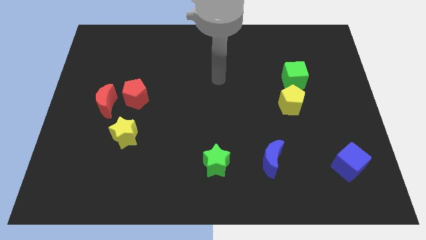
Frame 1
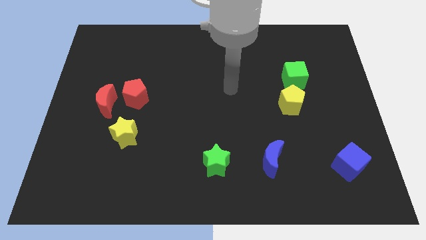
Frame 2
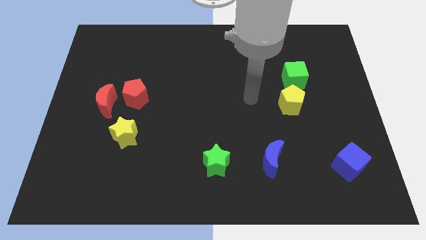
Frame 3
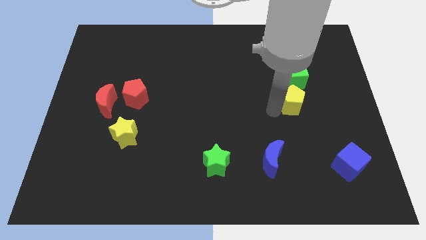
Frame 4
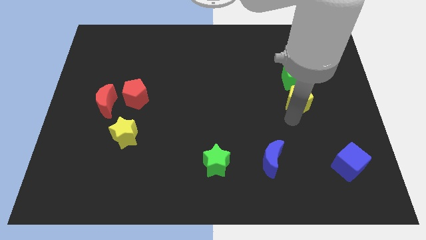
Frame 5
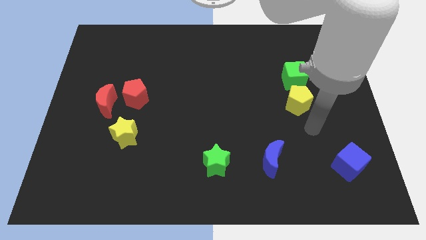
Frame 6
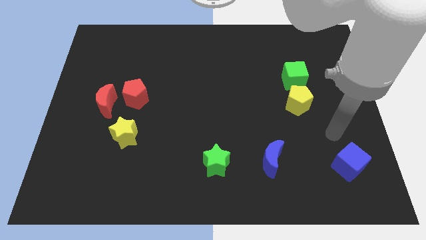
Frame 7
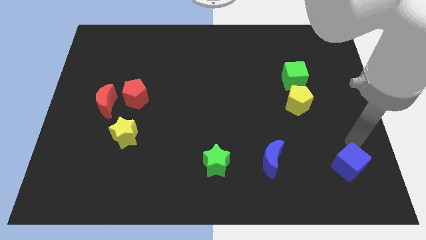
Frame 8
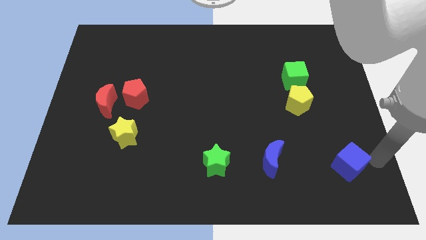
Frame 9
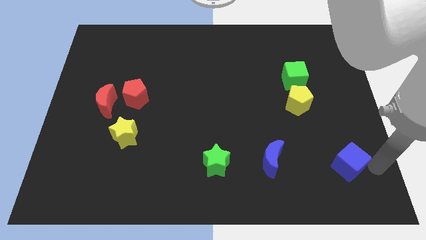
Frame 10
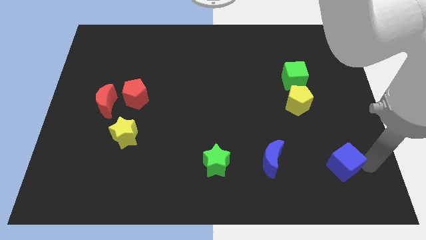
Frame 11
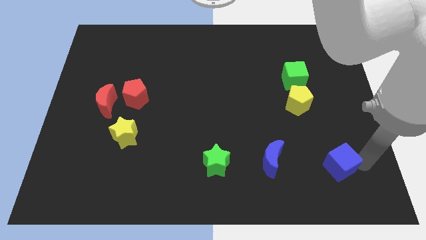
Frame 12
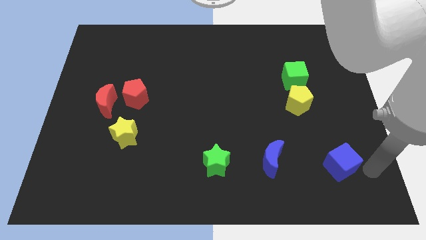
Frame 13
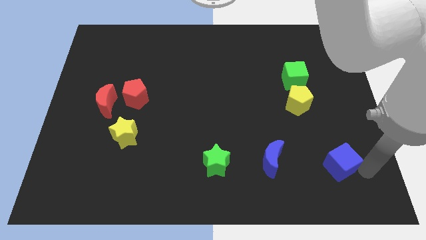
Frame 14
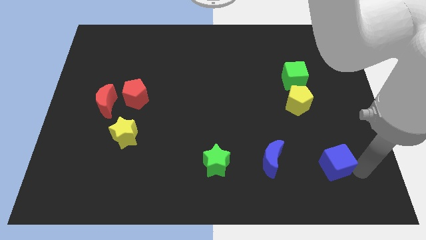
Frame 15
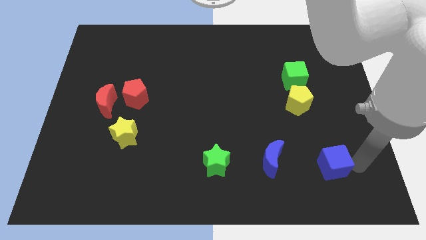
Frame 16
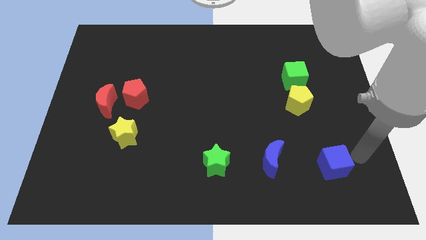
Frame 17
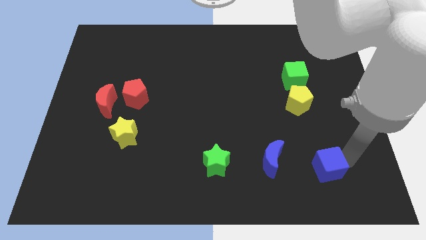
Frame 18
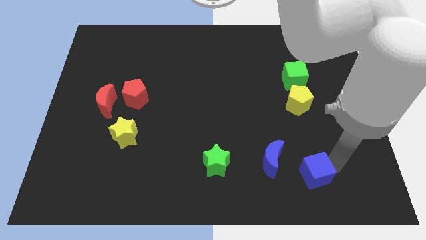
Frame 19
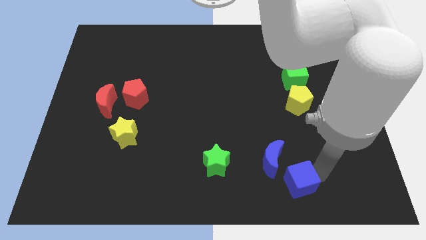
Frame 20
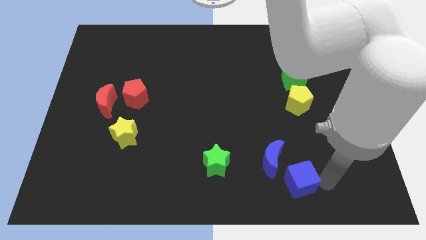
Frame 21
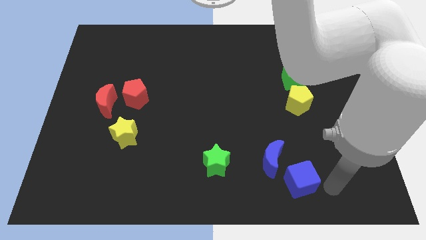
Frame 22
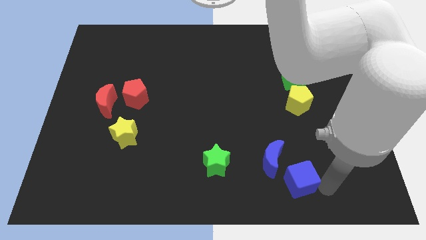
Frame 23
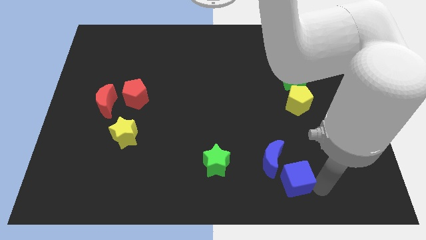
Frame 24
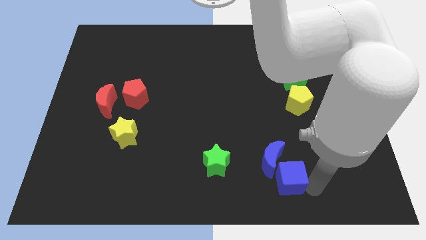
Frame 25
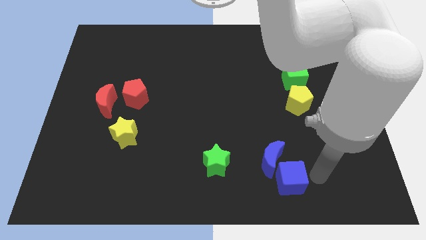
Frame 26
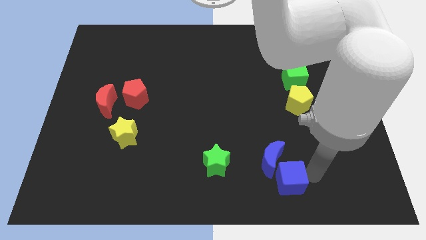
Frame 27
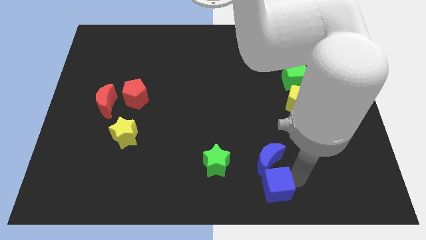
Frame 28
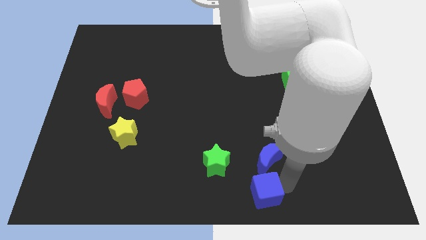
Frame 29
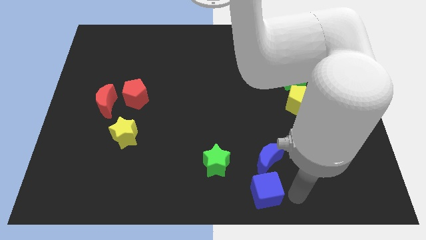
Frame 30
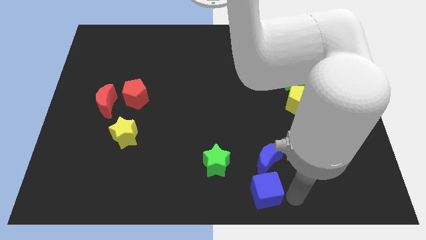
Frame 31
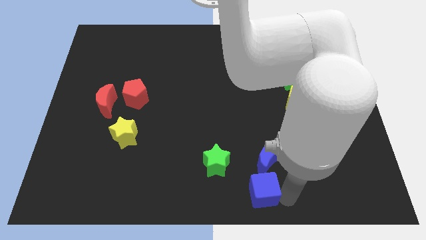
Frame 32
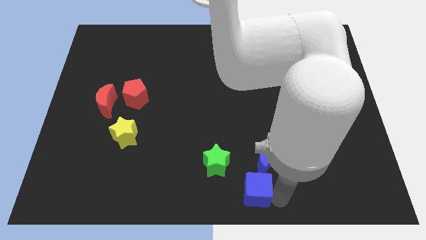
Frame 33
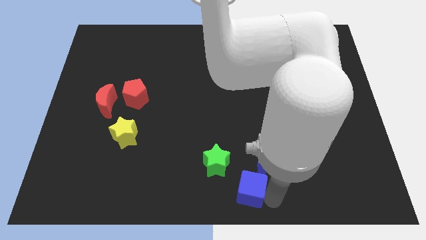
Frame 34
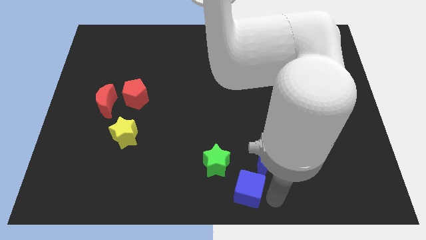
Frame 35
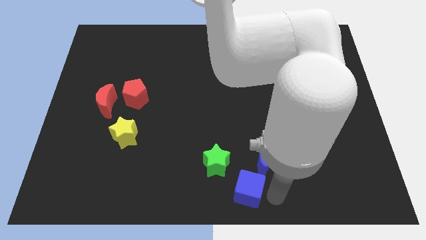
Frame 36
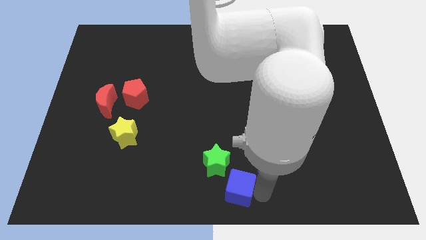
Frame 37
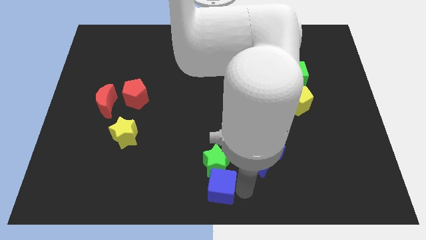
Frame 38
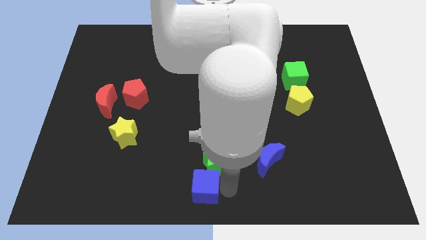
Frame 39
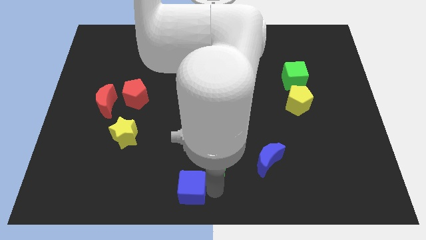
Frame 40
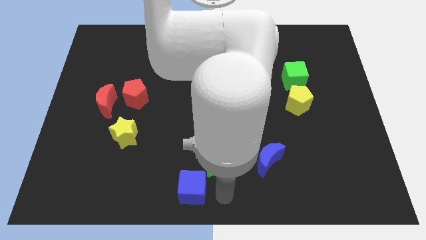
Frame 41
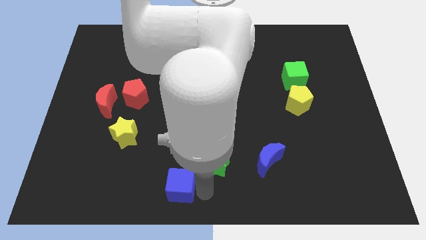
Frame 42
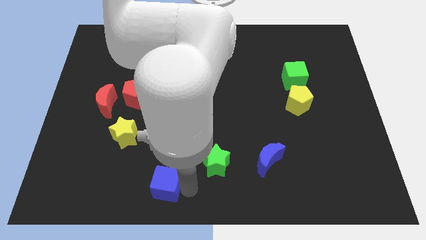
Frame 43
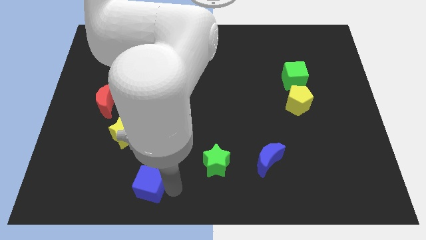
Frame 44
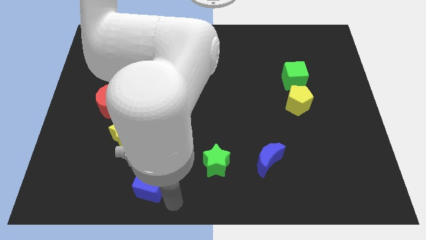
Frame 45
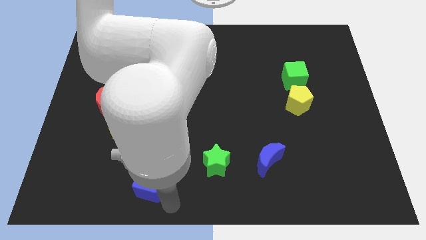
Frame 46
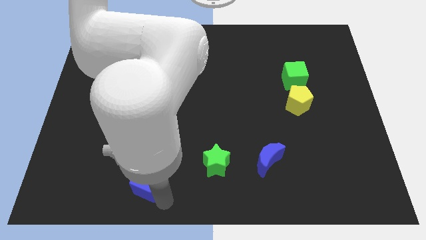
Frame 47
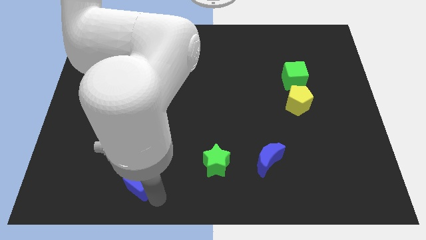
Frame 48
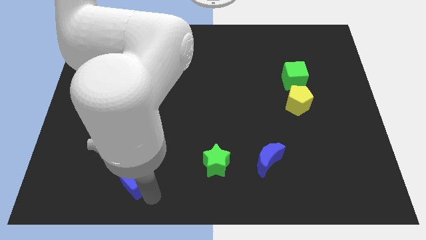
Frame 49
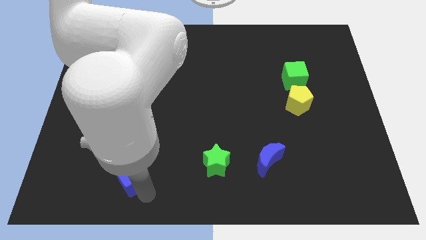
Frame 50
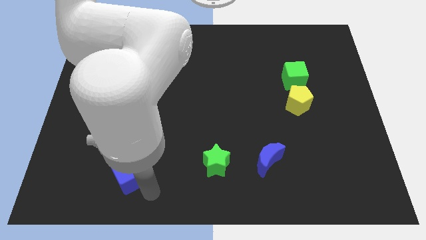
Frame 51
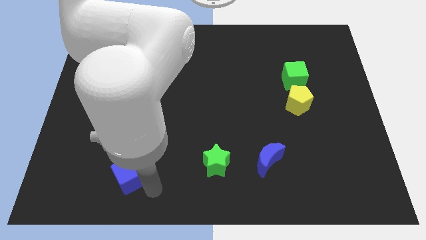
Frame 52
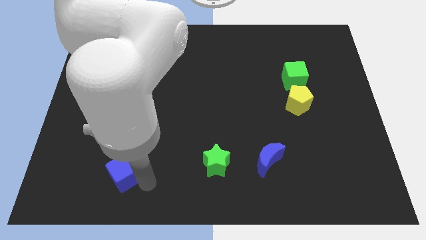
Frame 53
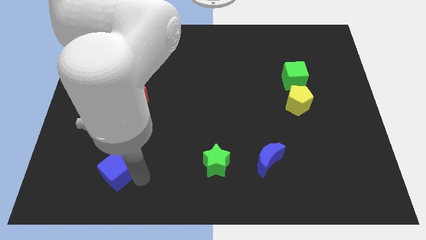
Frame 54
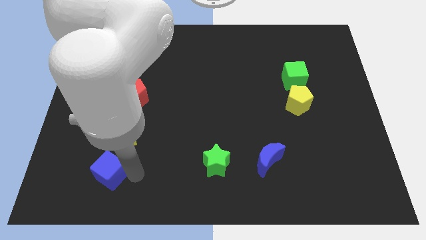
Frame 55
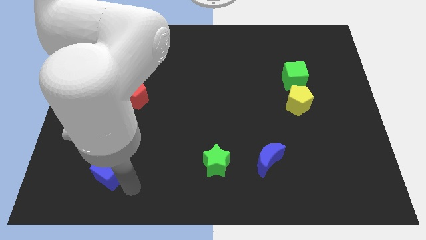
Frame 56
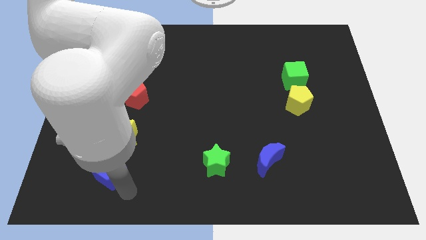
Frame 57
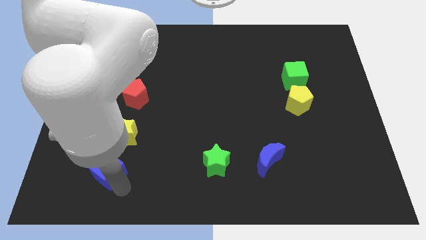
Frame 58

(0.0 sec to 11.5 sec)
put the blue cube to the bottom left of the yellow star

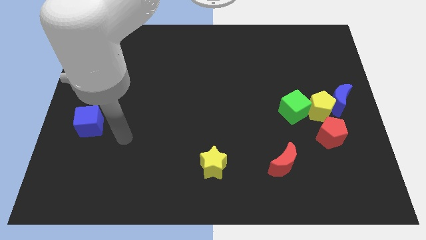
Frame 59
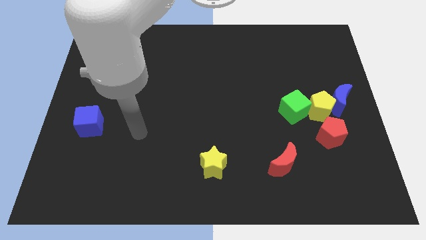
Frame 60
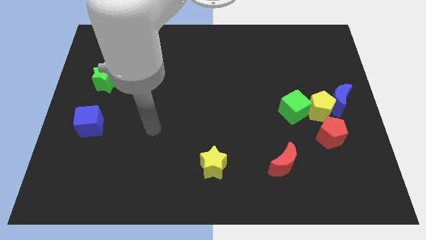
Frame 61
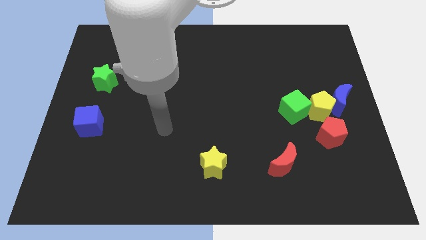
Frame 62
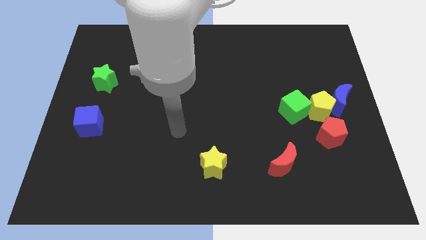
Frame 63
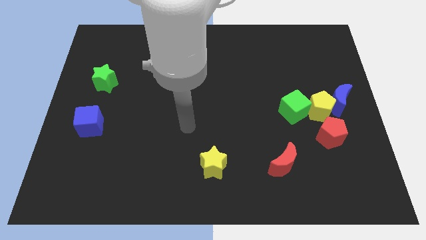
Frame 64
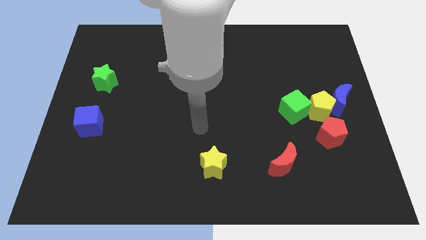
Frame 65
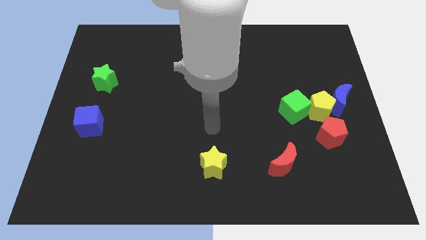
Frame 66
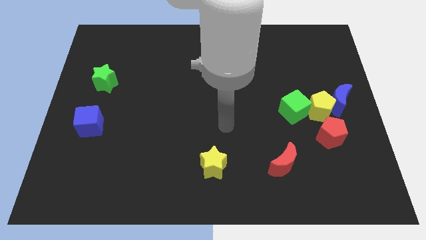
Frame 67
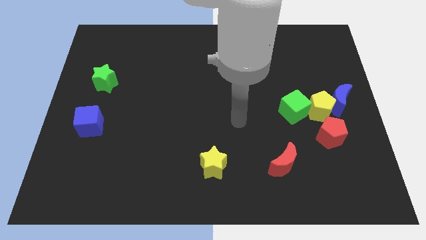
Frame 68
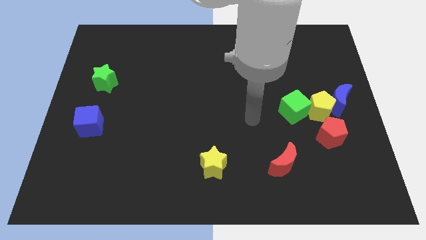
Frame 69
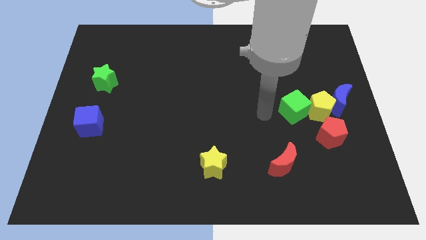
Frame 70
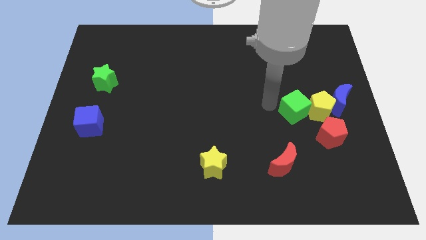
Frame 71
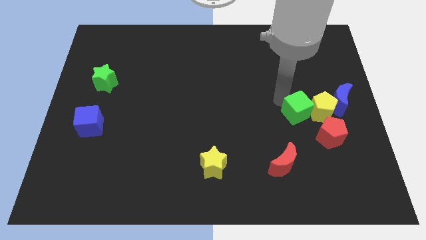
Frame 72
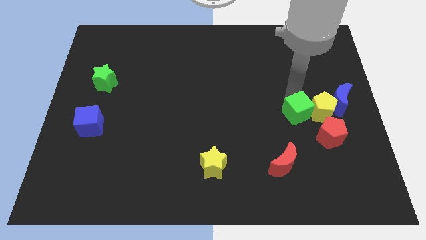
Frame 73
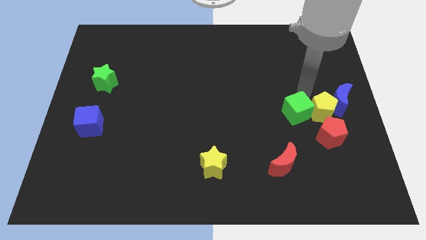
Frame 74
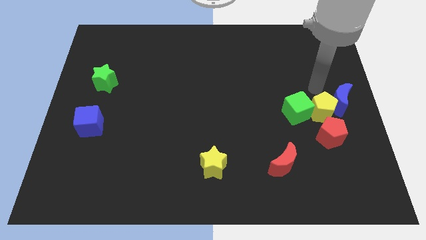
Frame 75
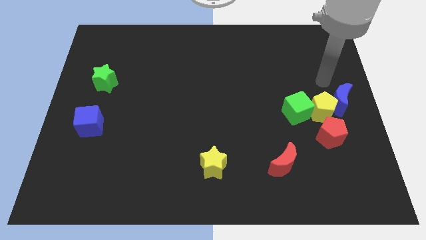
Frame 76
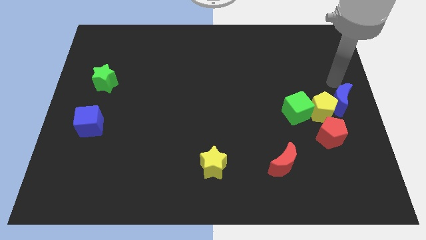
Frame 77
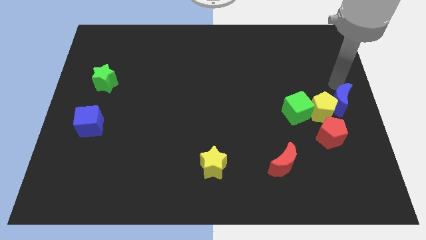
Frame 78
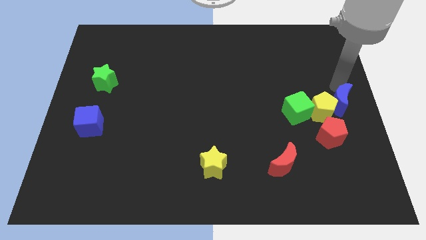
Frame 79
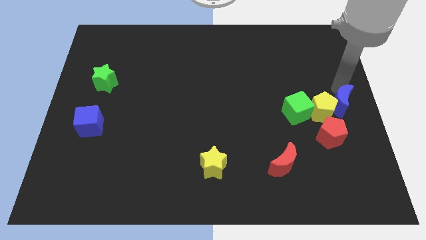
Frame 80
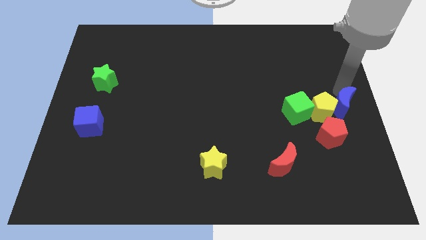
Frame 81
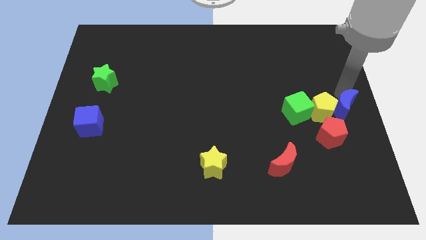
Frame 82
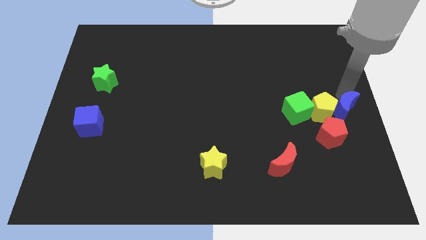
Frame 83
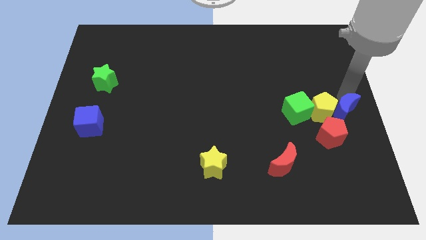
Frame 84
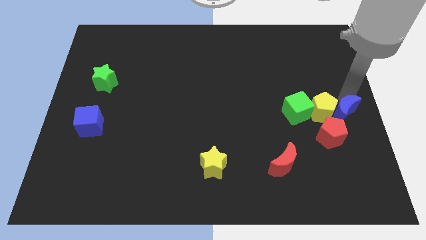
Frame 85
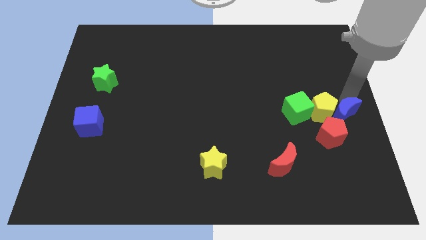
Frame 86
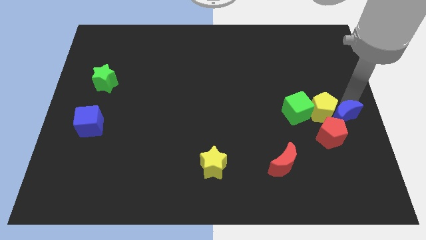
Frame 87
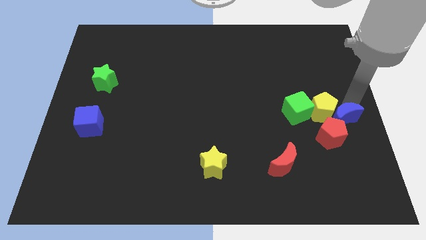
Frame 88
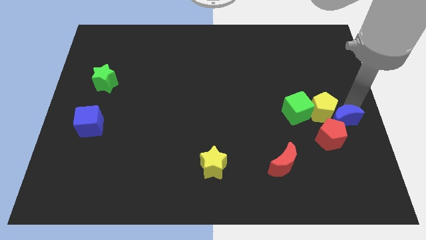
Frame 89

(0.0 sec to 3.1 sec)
put the blue moon below the yellow pentagon
